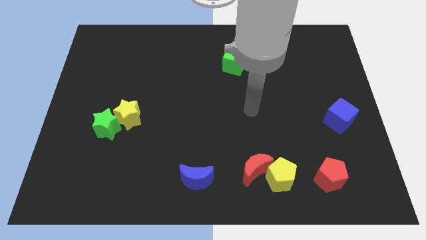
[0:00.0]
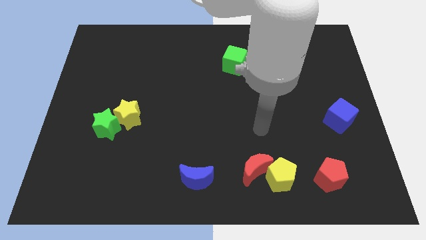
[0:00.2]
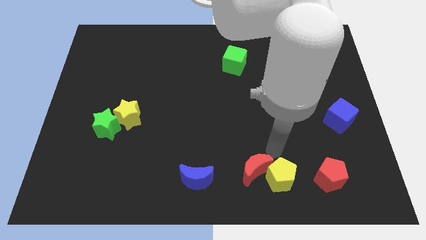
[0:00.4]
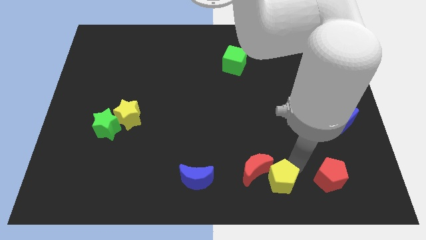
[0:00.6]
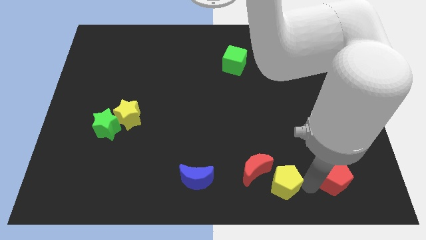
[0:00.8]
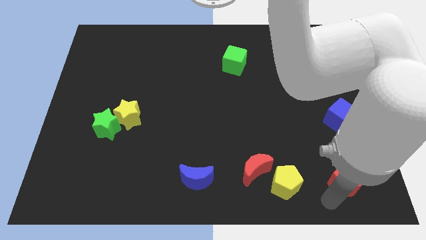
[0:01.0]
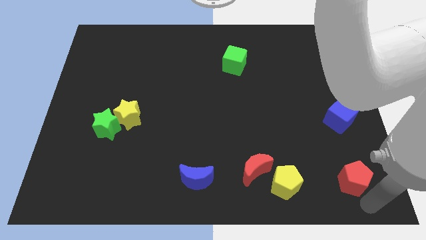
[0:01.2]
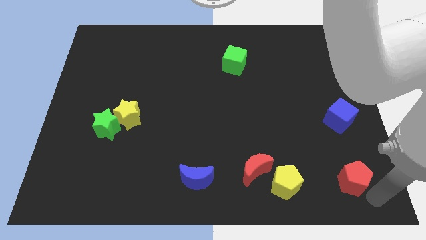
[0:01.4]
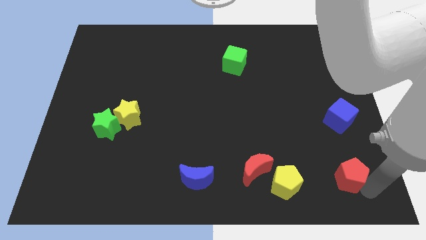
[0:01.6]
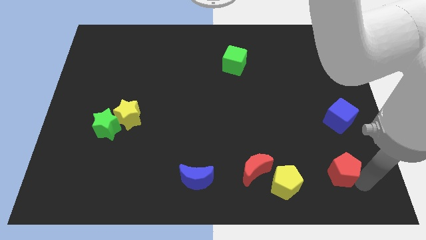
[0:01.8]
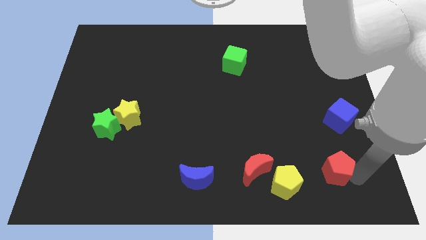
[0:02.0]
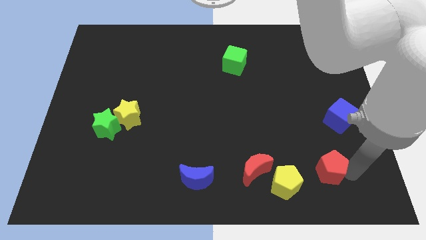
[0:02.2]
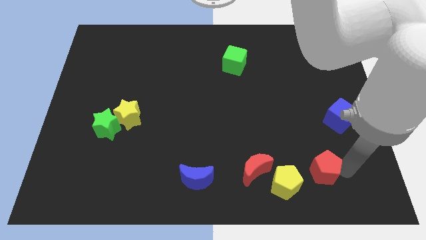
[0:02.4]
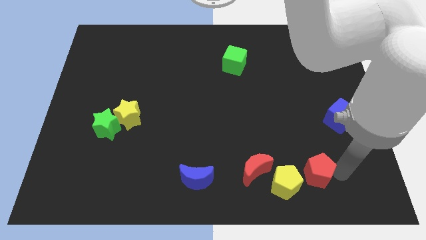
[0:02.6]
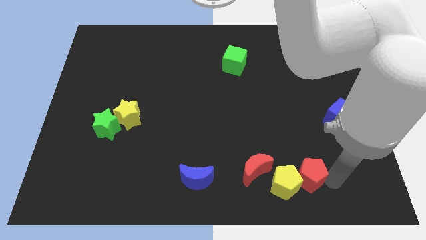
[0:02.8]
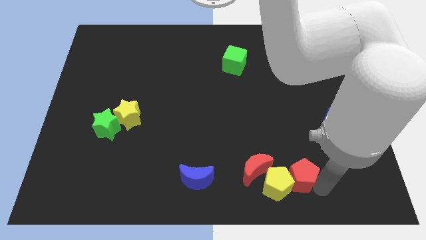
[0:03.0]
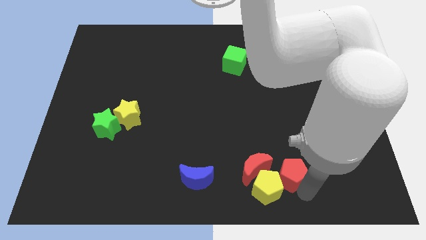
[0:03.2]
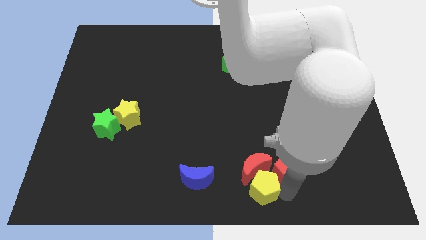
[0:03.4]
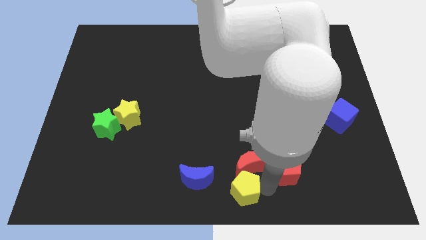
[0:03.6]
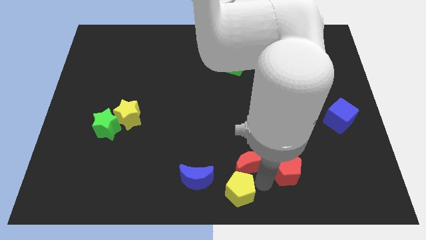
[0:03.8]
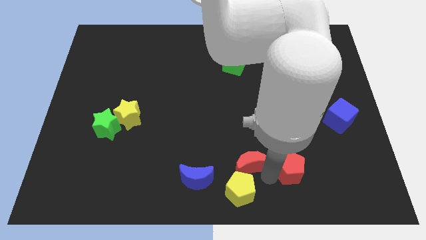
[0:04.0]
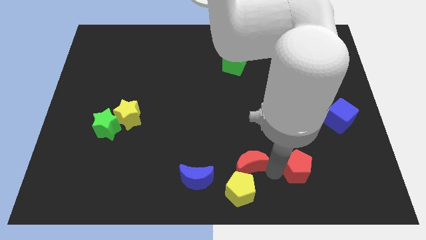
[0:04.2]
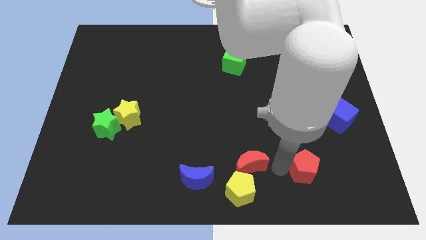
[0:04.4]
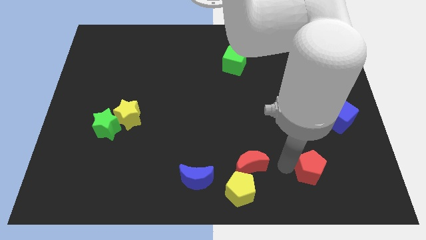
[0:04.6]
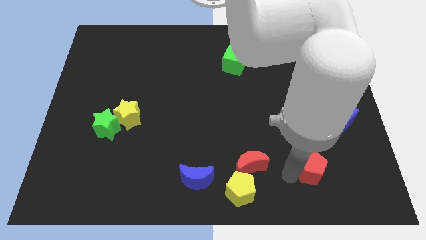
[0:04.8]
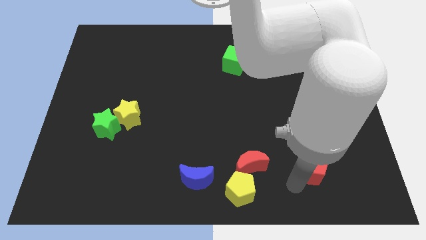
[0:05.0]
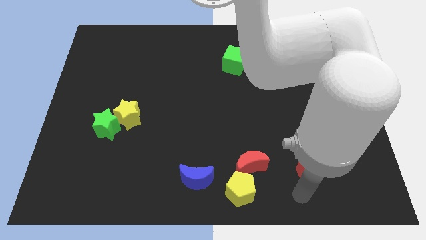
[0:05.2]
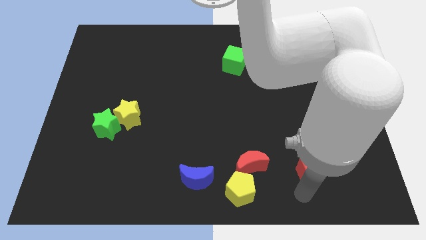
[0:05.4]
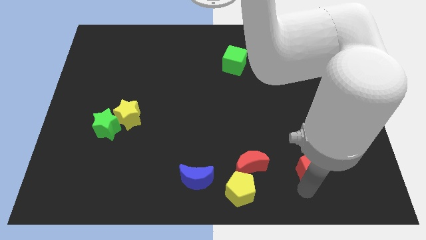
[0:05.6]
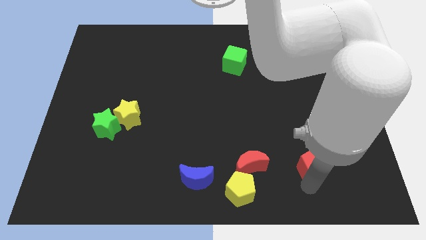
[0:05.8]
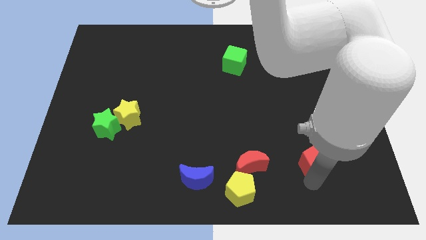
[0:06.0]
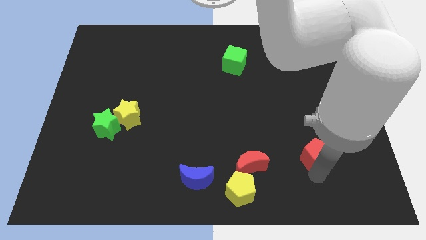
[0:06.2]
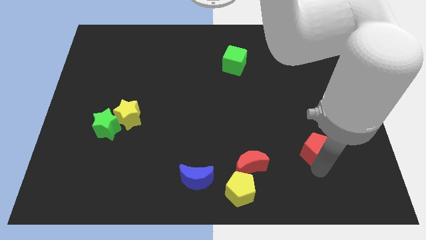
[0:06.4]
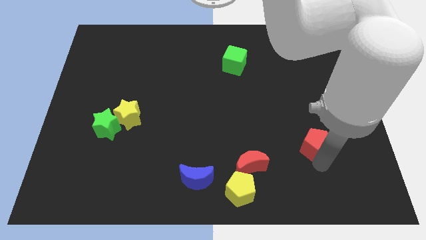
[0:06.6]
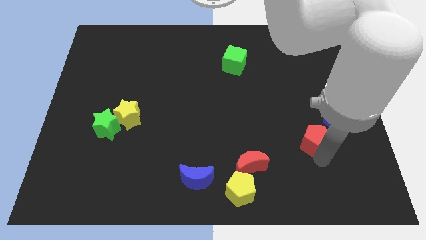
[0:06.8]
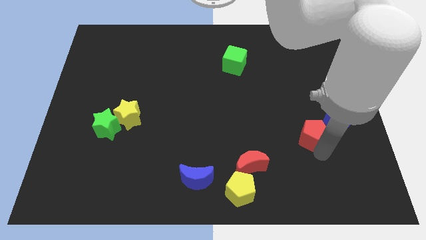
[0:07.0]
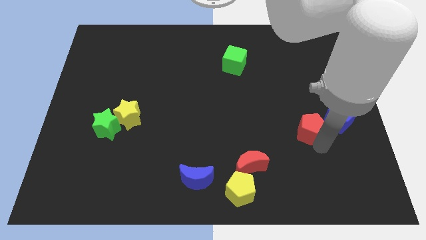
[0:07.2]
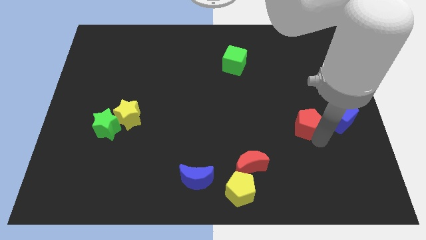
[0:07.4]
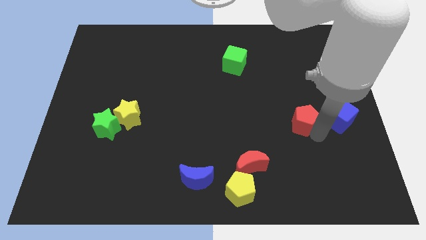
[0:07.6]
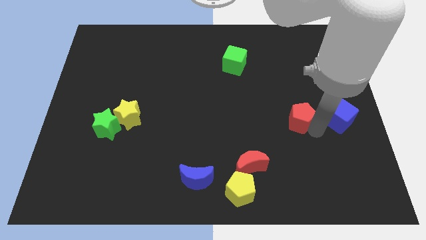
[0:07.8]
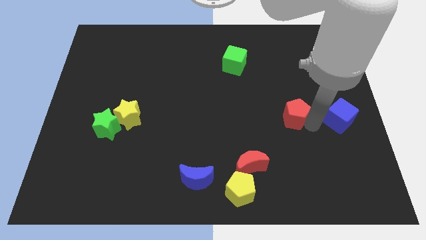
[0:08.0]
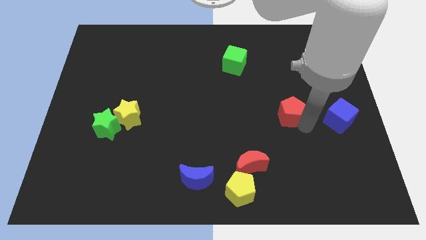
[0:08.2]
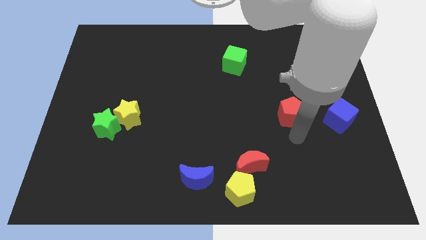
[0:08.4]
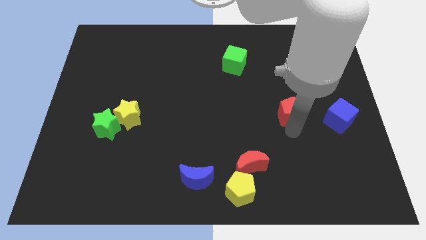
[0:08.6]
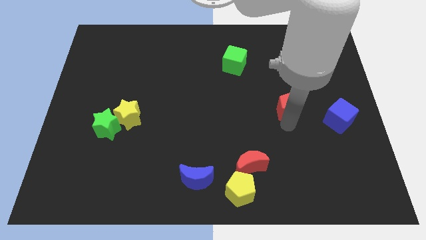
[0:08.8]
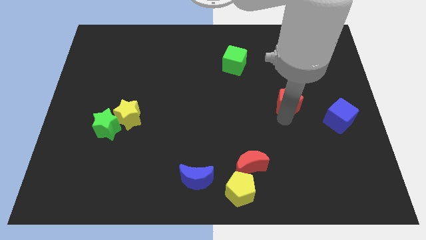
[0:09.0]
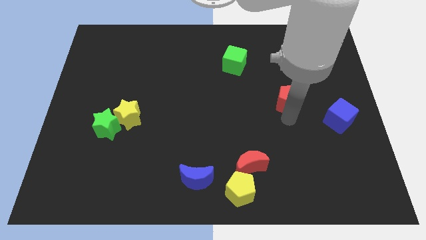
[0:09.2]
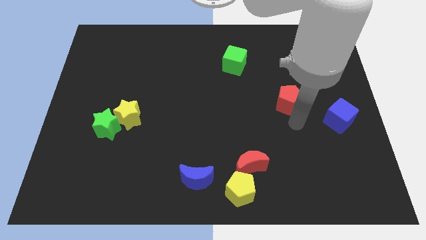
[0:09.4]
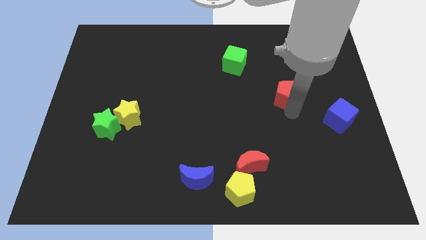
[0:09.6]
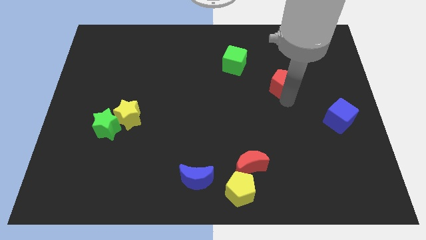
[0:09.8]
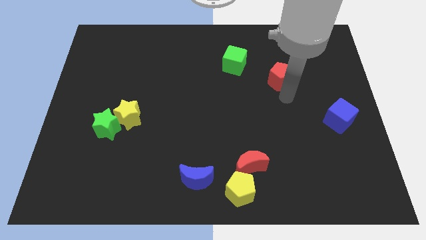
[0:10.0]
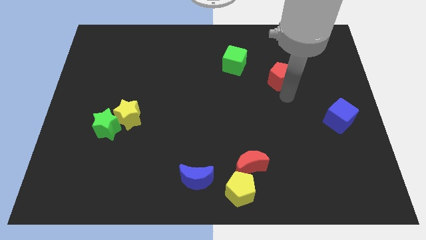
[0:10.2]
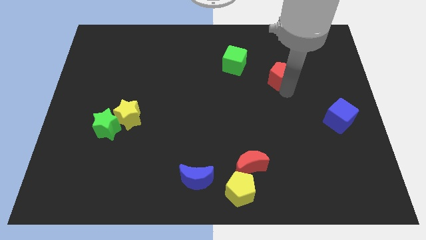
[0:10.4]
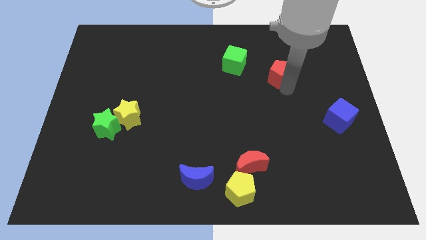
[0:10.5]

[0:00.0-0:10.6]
push the red pentagon to the right of the green cube

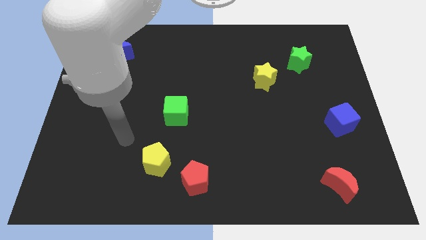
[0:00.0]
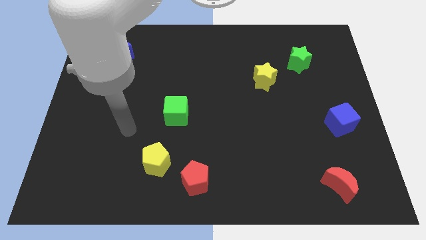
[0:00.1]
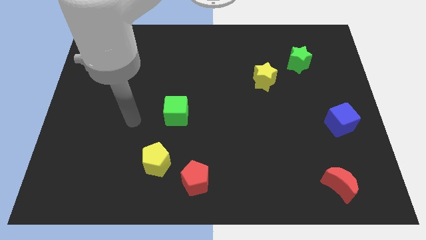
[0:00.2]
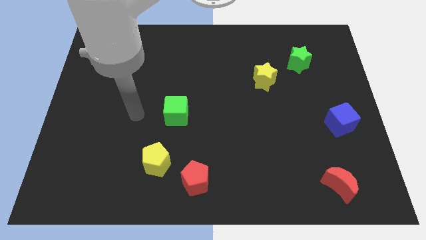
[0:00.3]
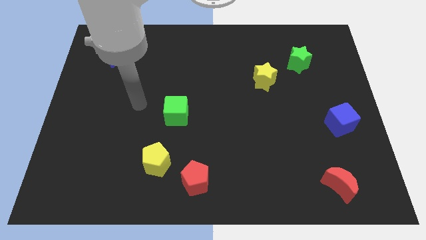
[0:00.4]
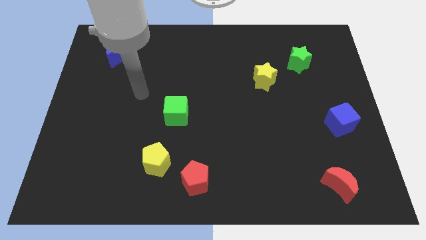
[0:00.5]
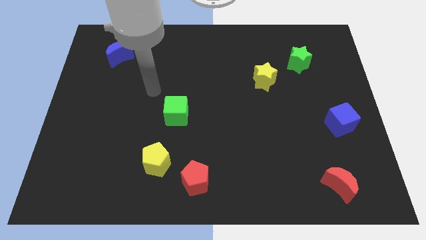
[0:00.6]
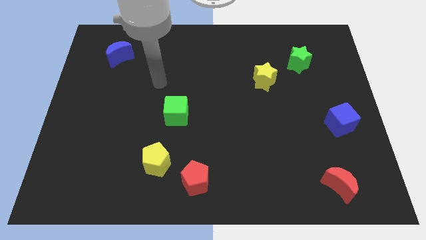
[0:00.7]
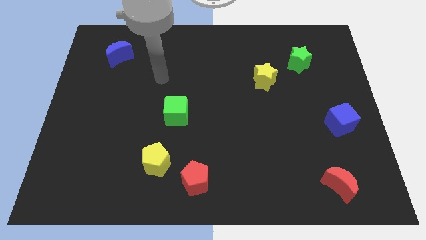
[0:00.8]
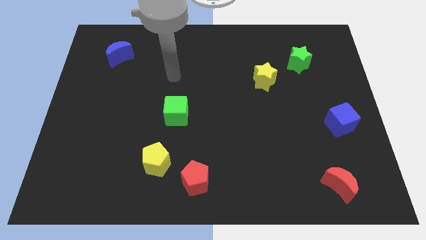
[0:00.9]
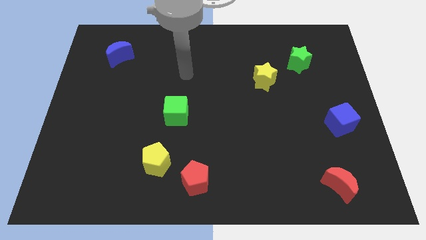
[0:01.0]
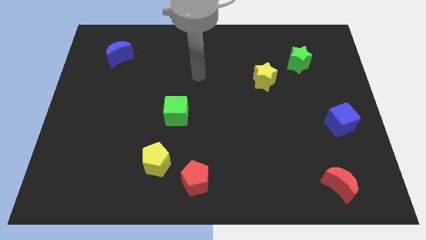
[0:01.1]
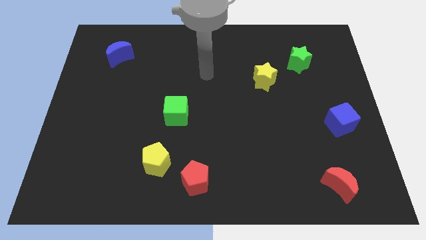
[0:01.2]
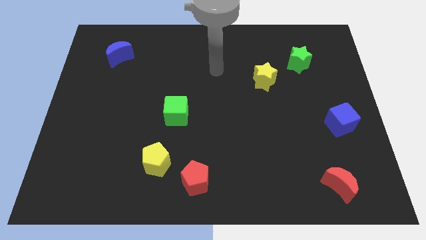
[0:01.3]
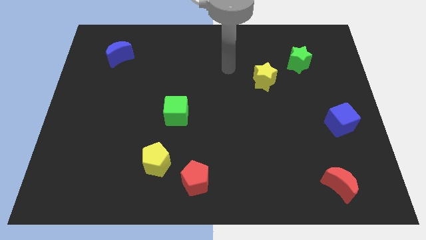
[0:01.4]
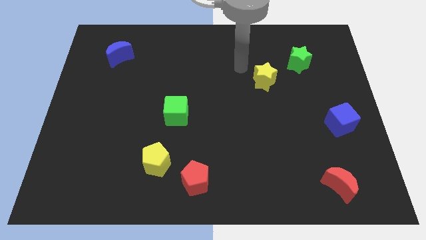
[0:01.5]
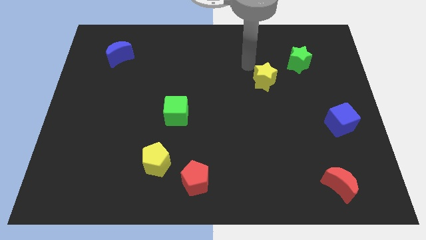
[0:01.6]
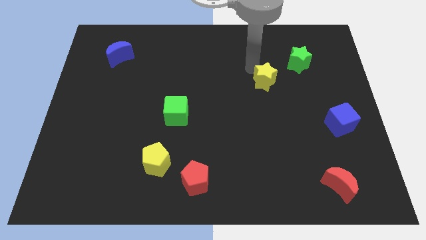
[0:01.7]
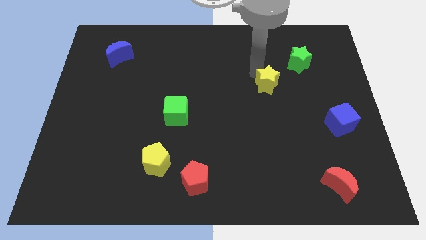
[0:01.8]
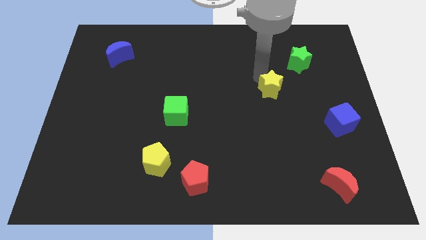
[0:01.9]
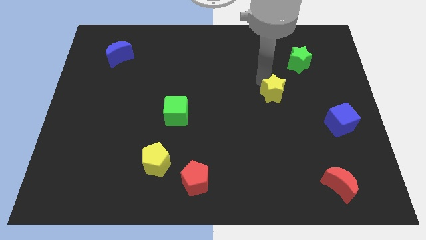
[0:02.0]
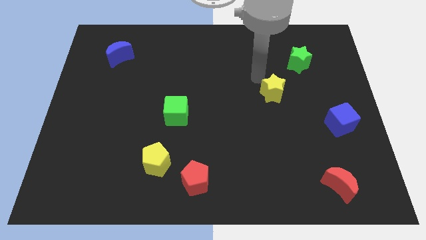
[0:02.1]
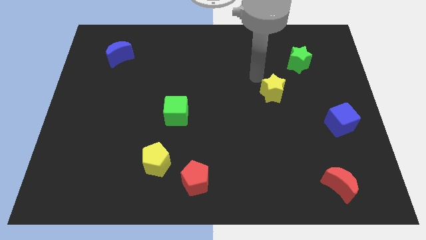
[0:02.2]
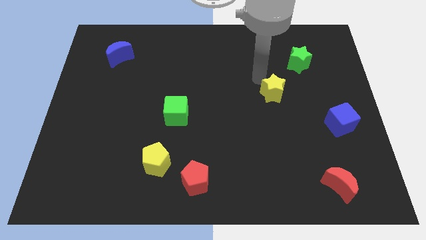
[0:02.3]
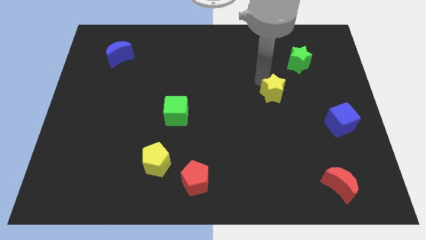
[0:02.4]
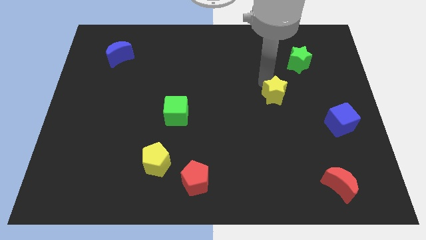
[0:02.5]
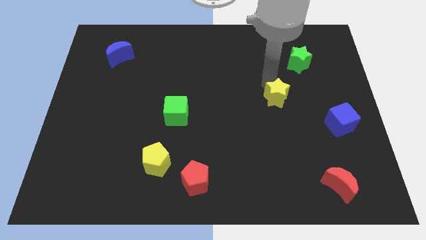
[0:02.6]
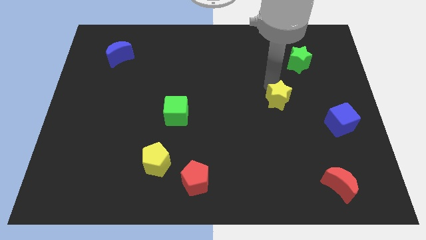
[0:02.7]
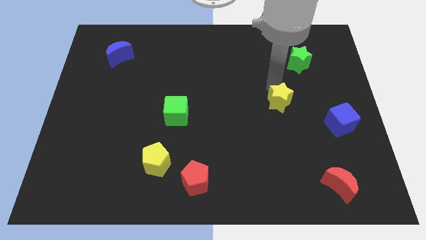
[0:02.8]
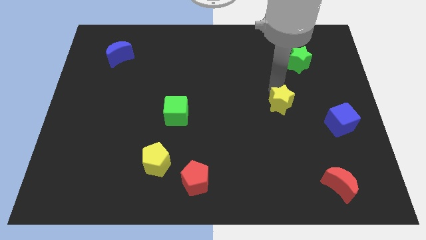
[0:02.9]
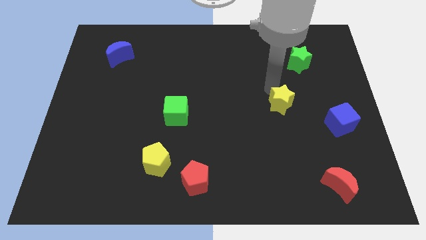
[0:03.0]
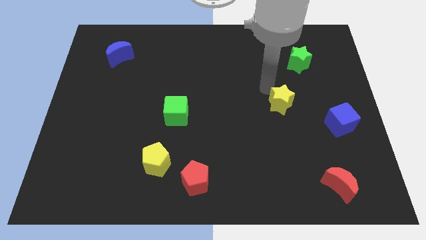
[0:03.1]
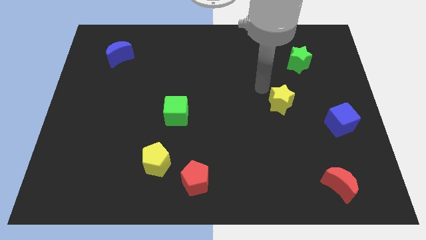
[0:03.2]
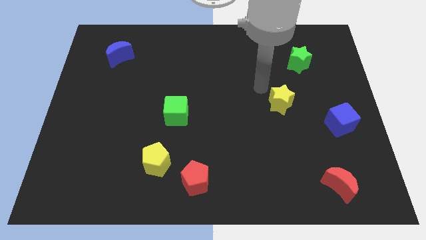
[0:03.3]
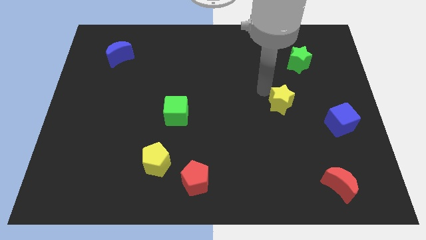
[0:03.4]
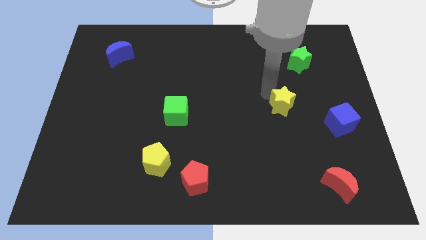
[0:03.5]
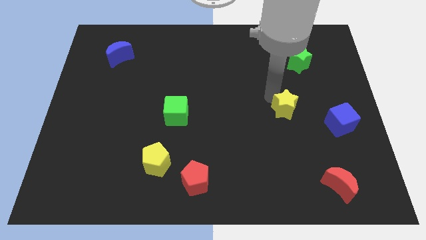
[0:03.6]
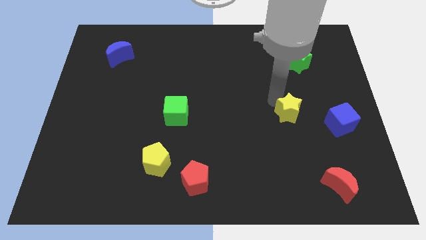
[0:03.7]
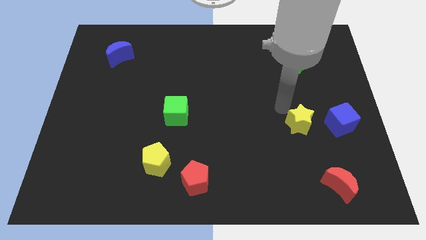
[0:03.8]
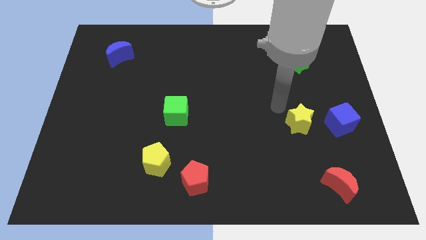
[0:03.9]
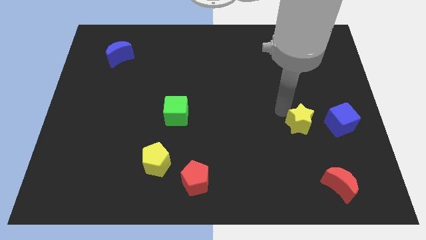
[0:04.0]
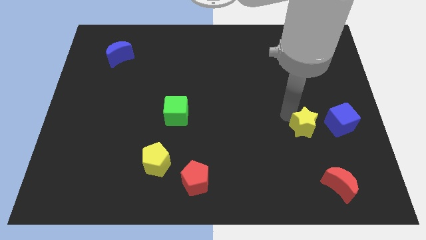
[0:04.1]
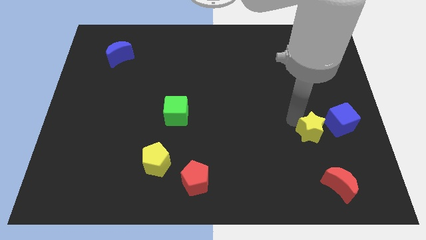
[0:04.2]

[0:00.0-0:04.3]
push the yellow star diagonally down and to the left of the blue cube
